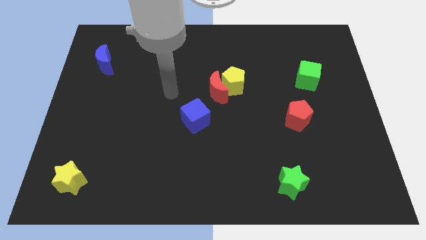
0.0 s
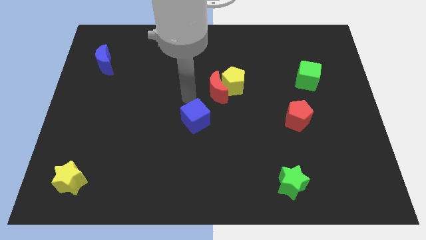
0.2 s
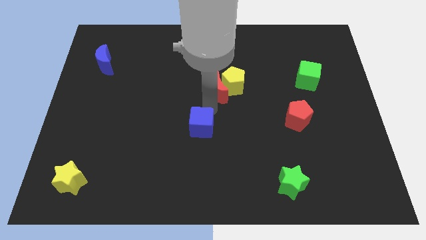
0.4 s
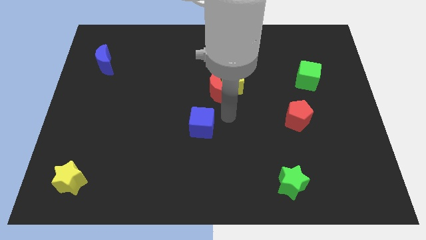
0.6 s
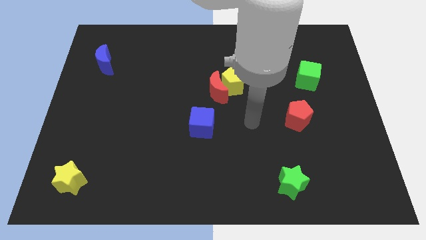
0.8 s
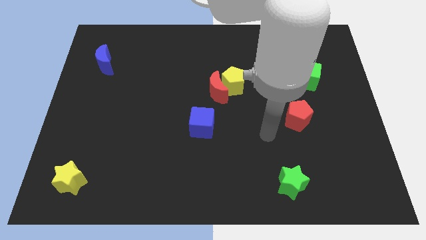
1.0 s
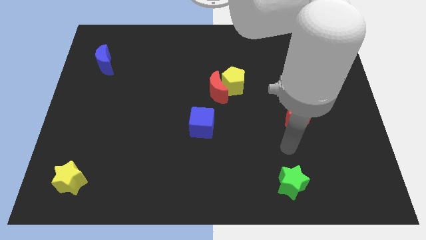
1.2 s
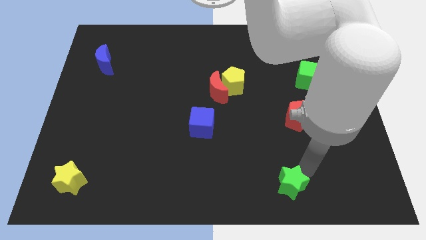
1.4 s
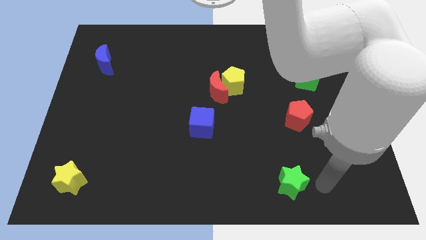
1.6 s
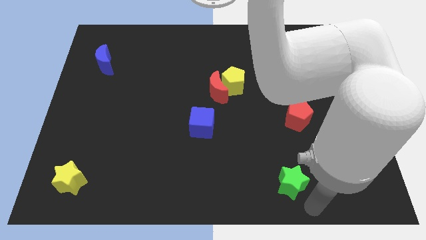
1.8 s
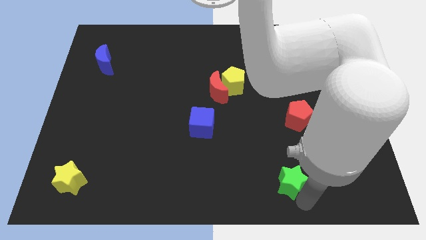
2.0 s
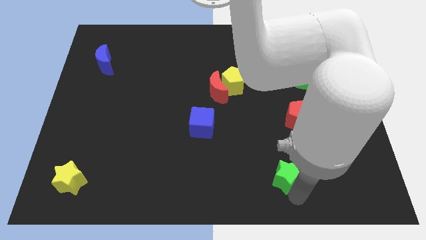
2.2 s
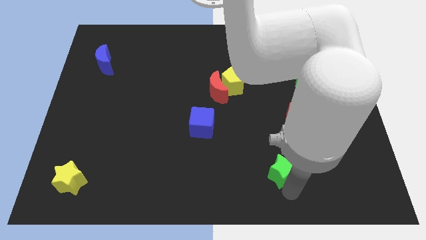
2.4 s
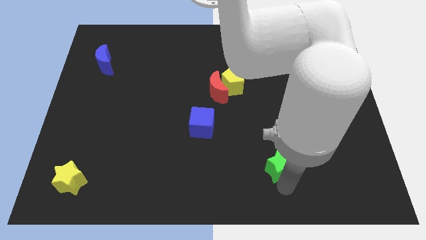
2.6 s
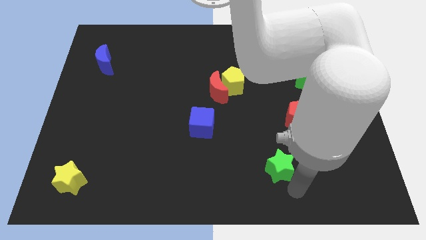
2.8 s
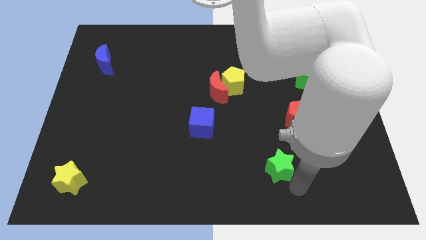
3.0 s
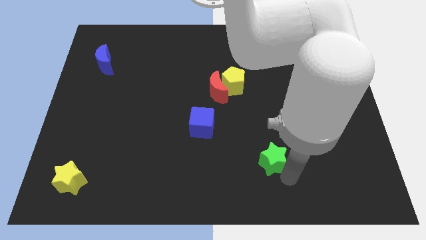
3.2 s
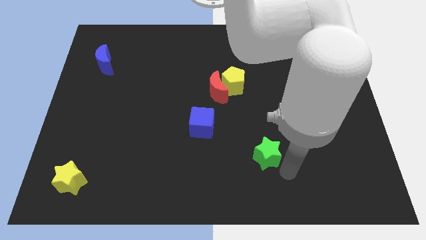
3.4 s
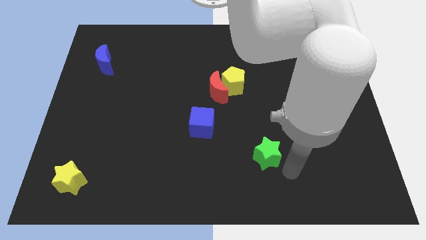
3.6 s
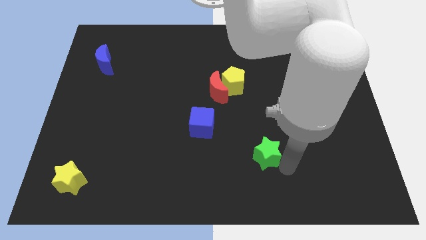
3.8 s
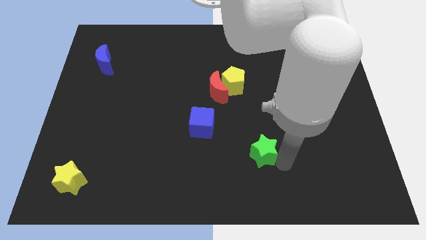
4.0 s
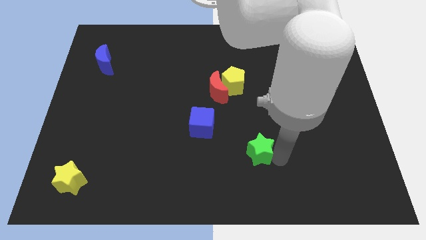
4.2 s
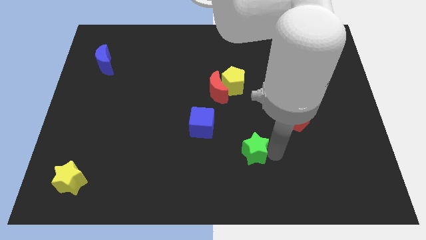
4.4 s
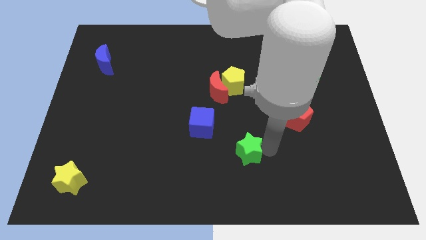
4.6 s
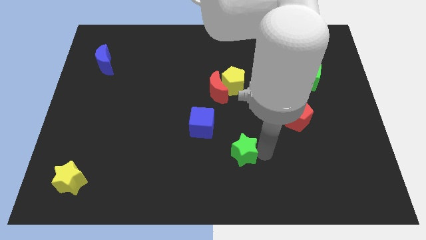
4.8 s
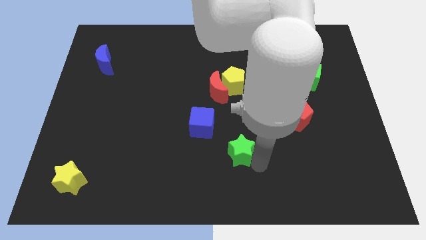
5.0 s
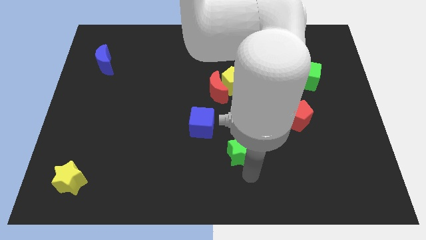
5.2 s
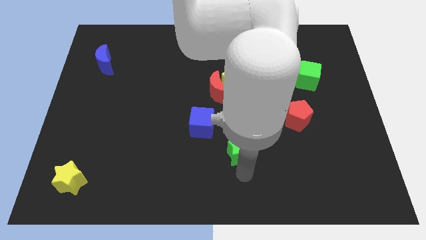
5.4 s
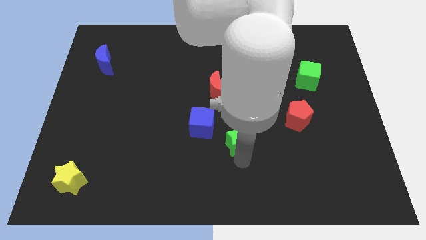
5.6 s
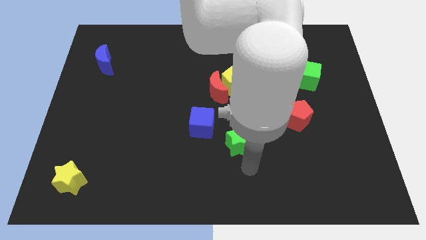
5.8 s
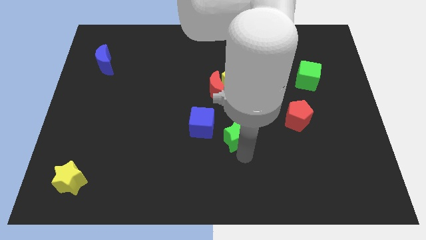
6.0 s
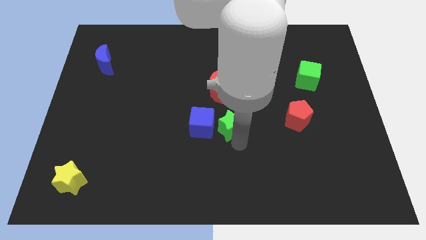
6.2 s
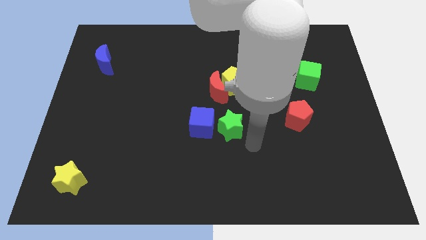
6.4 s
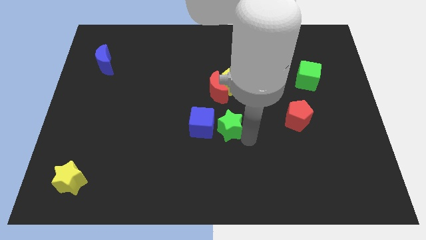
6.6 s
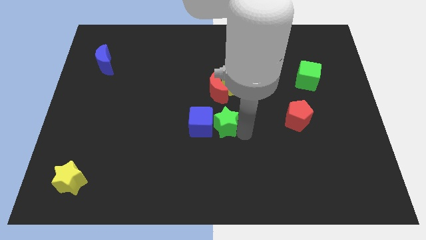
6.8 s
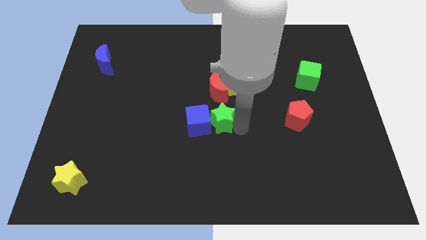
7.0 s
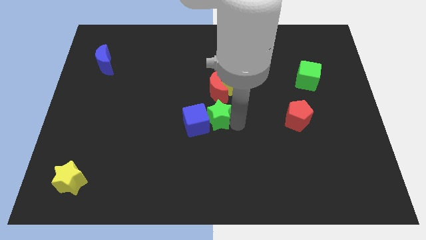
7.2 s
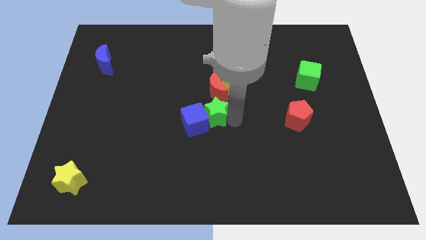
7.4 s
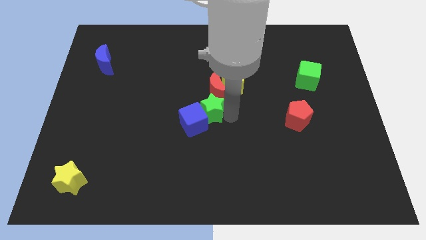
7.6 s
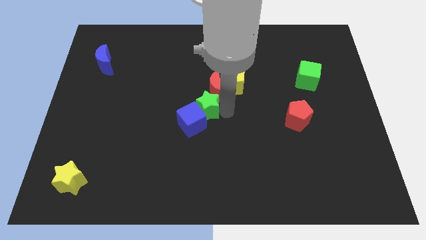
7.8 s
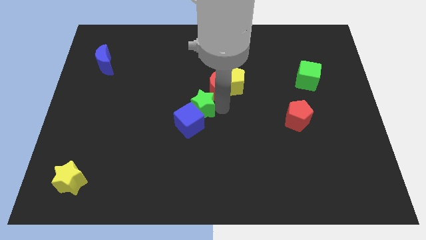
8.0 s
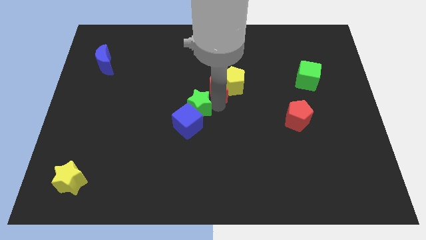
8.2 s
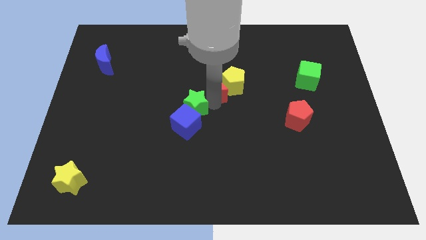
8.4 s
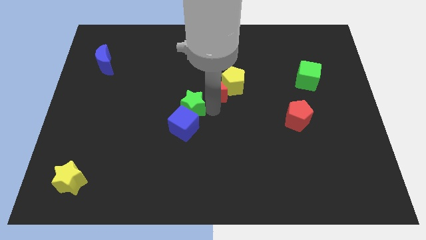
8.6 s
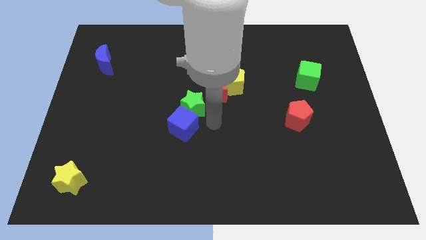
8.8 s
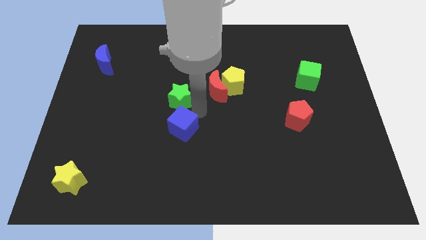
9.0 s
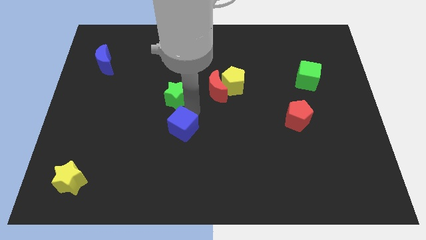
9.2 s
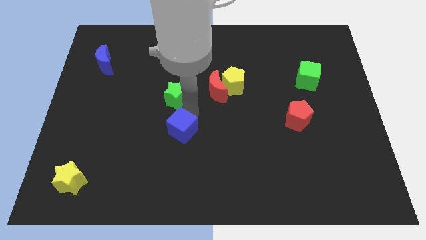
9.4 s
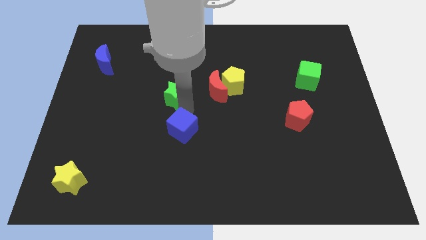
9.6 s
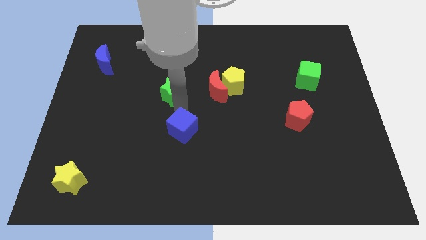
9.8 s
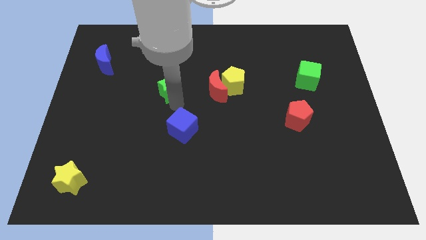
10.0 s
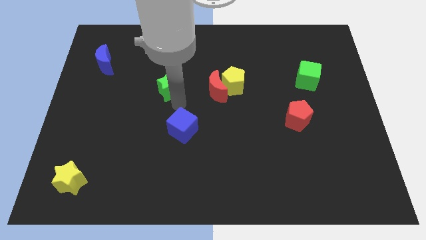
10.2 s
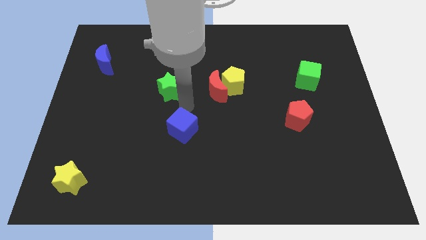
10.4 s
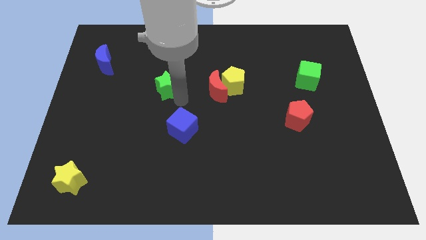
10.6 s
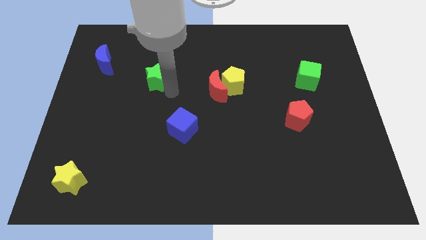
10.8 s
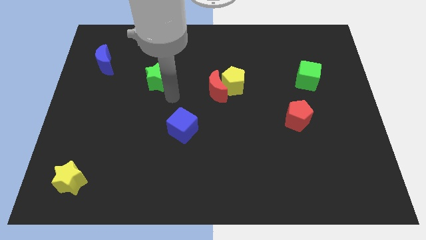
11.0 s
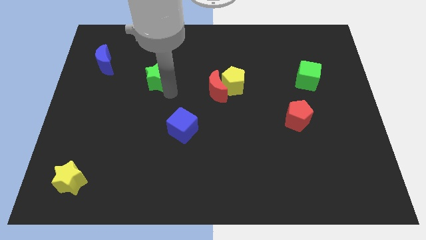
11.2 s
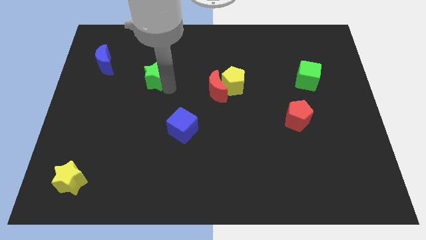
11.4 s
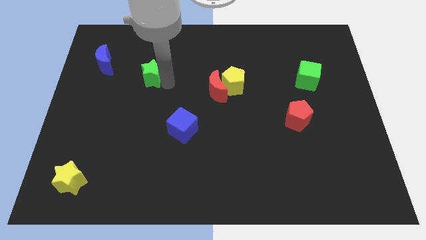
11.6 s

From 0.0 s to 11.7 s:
put the green star to the right of the blue moon

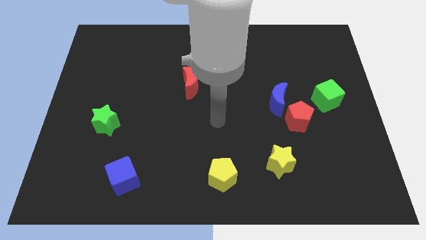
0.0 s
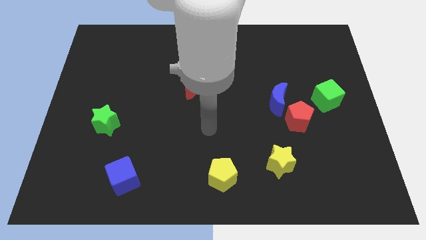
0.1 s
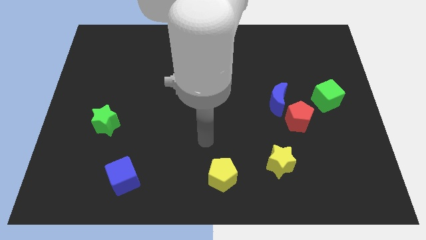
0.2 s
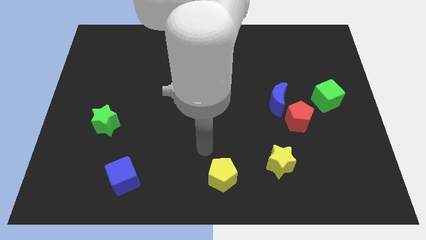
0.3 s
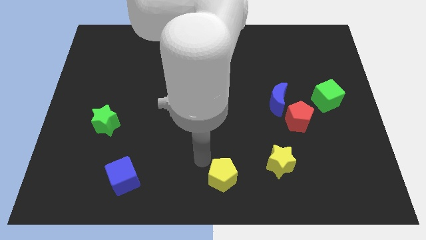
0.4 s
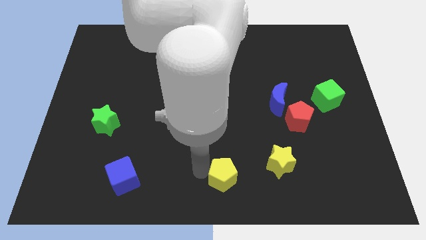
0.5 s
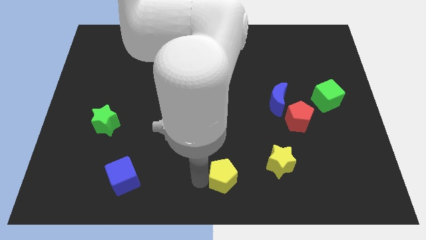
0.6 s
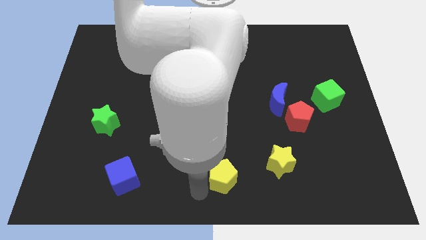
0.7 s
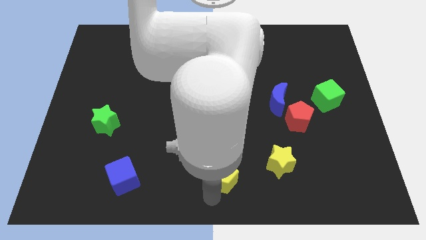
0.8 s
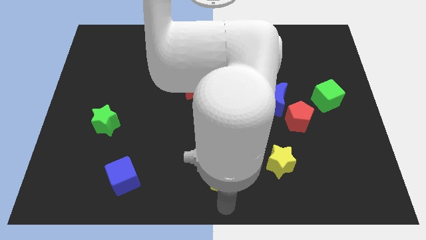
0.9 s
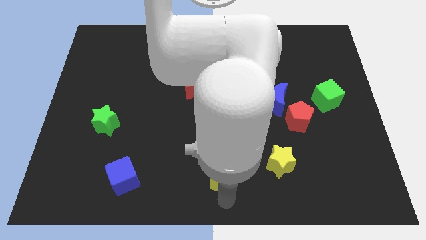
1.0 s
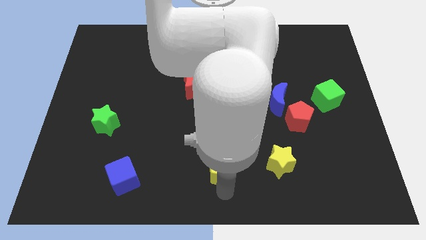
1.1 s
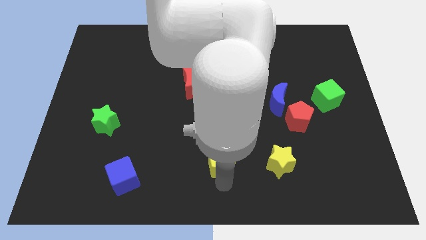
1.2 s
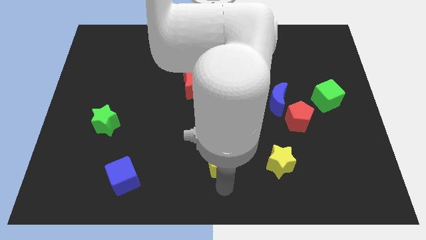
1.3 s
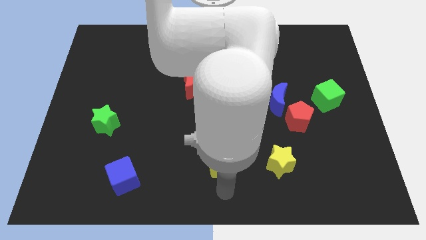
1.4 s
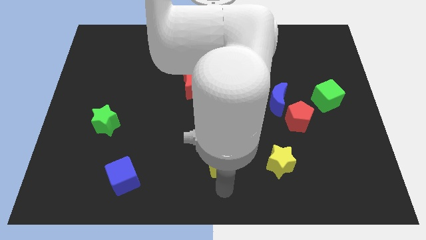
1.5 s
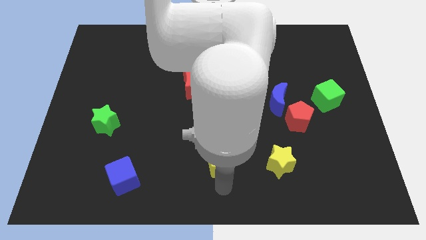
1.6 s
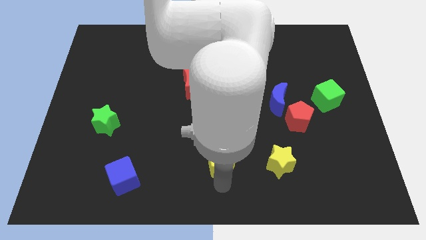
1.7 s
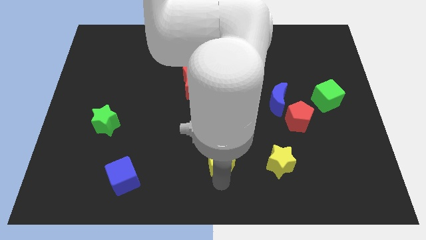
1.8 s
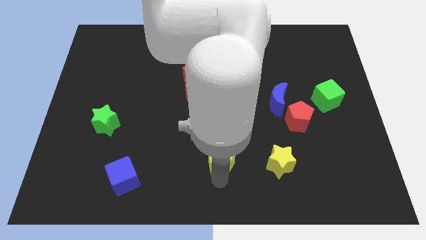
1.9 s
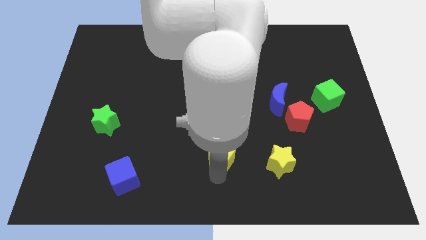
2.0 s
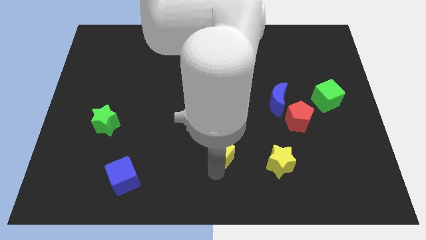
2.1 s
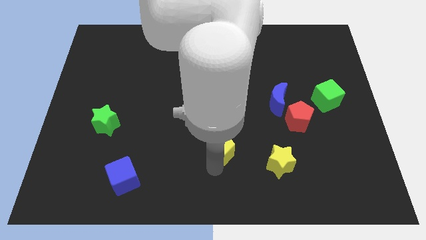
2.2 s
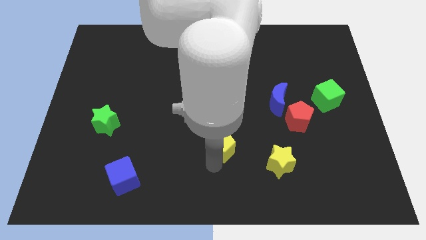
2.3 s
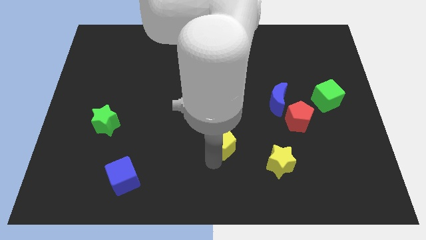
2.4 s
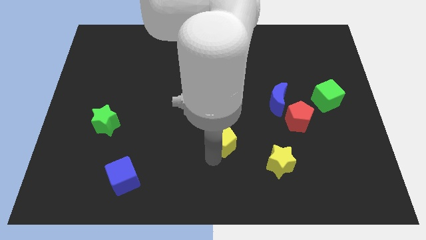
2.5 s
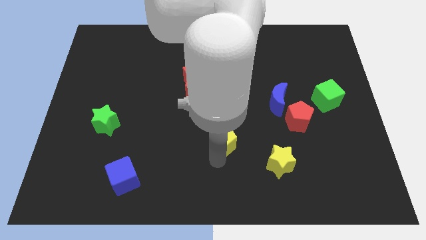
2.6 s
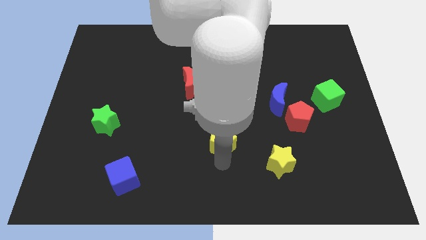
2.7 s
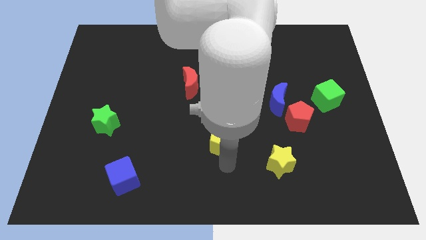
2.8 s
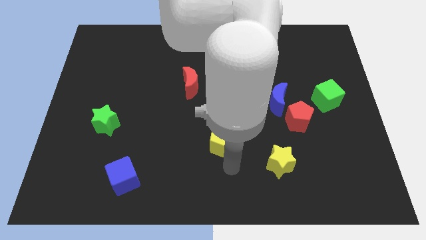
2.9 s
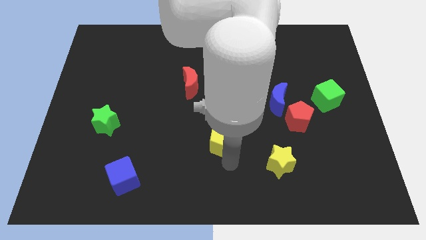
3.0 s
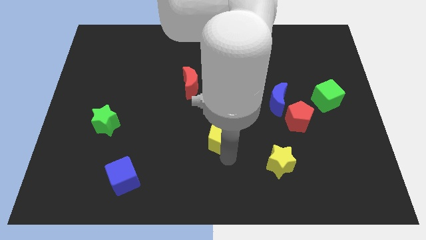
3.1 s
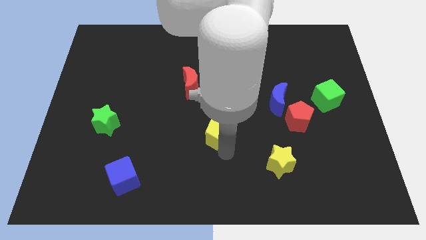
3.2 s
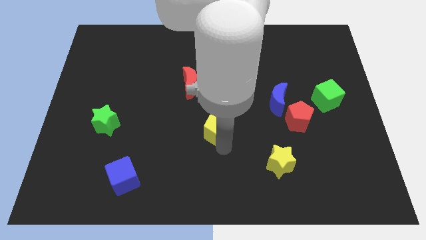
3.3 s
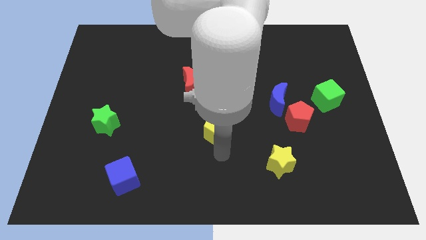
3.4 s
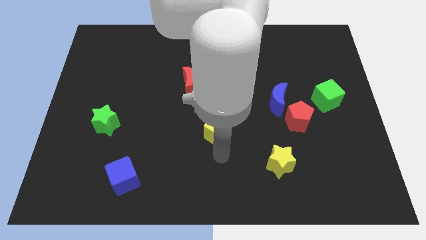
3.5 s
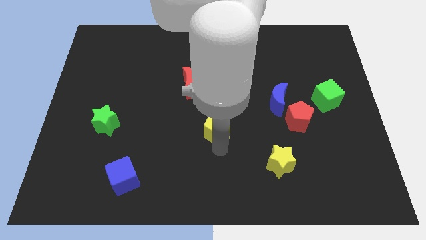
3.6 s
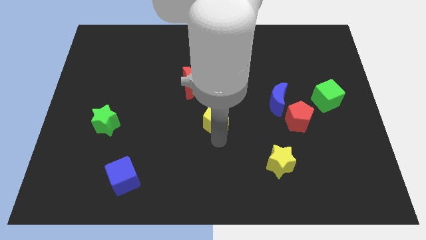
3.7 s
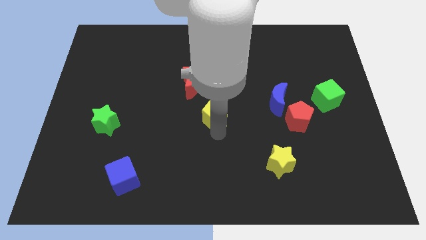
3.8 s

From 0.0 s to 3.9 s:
slide the yellow pentagon to the bottom right side of the red moon
